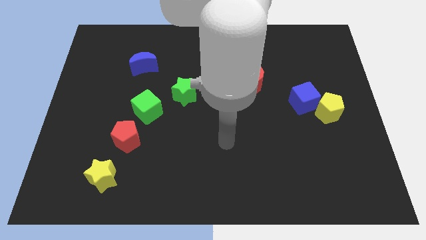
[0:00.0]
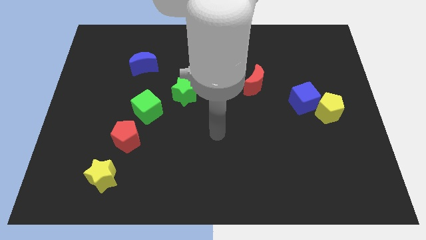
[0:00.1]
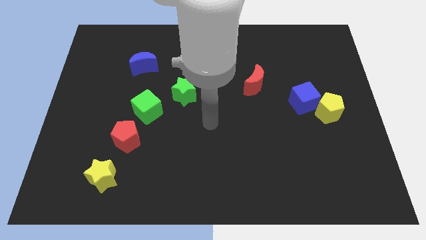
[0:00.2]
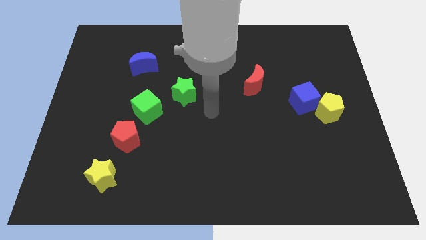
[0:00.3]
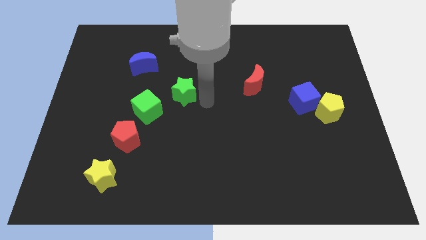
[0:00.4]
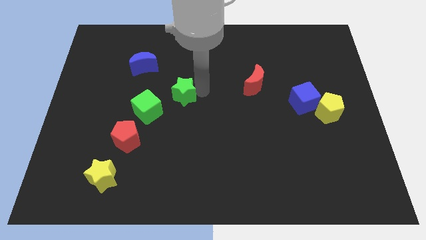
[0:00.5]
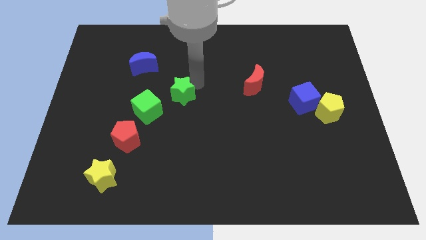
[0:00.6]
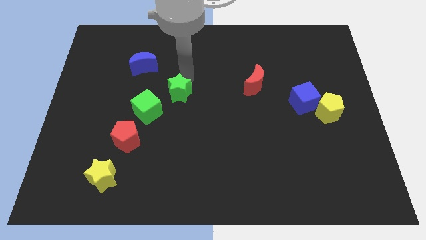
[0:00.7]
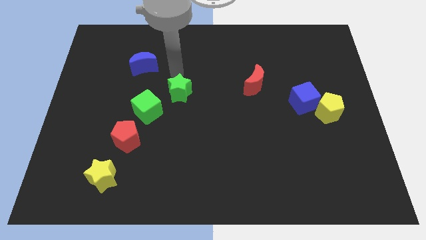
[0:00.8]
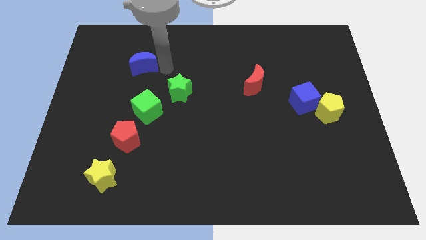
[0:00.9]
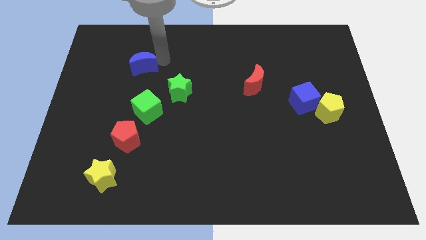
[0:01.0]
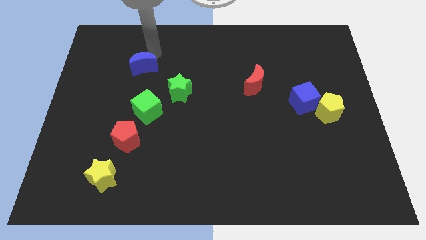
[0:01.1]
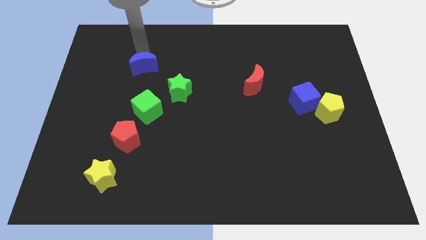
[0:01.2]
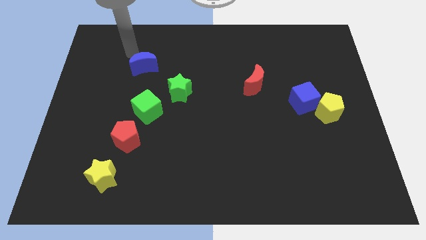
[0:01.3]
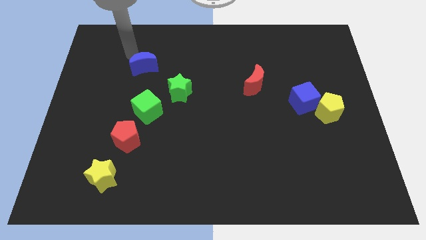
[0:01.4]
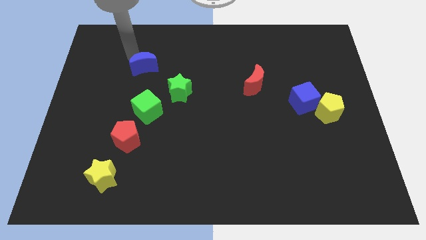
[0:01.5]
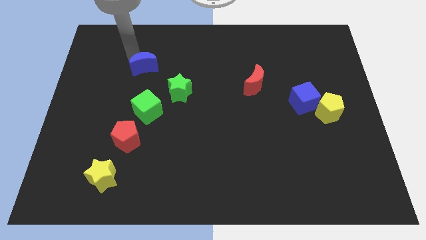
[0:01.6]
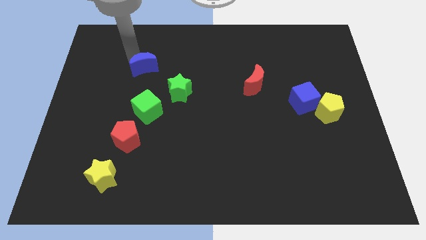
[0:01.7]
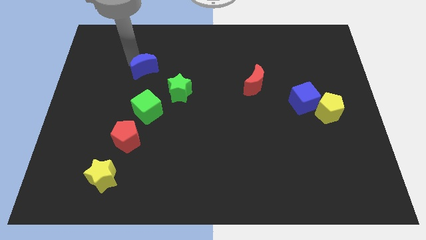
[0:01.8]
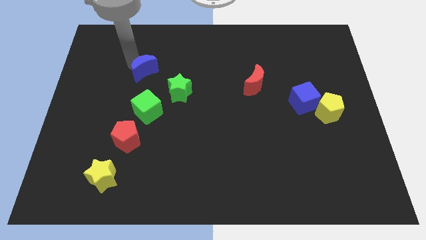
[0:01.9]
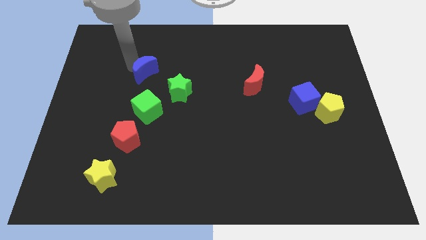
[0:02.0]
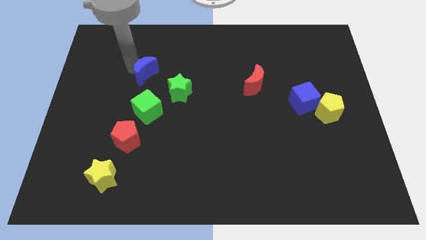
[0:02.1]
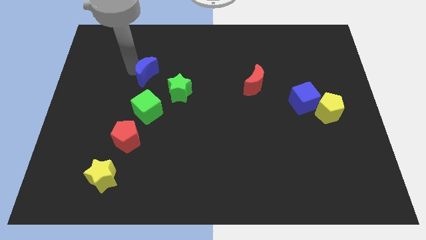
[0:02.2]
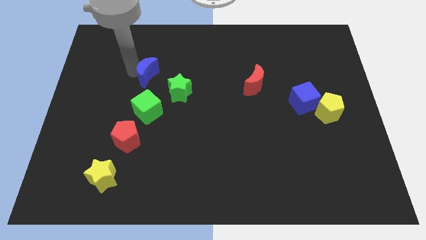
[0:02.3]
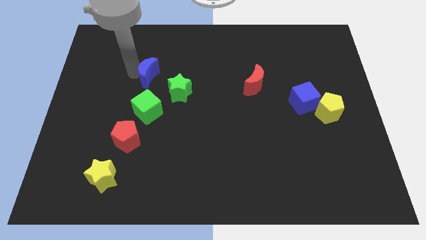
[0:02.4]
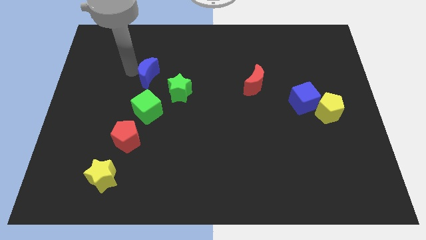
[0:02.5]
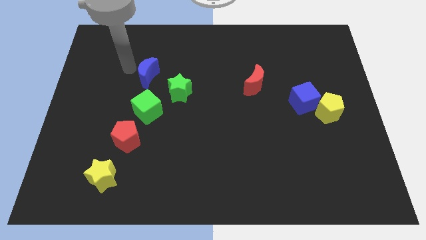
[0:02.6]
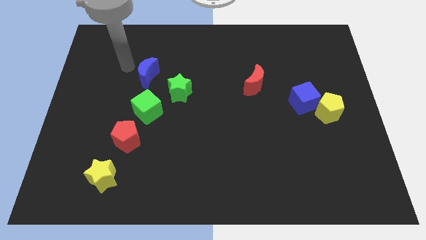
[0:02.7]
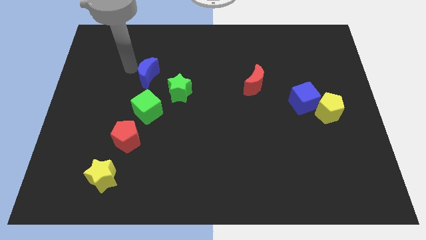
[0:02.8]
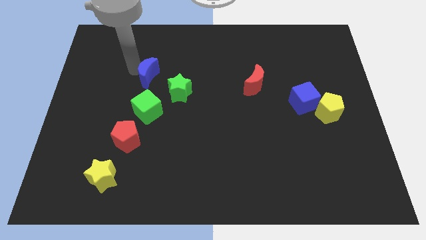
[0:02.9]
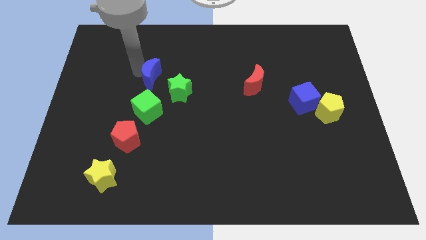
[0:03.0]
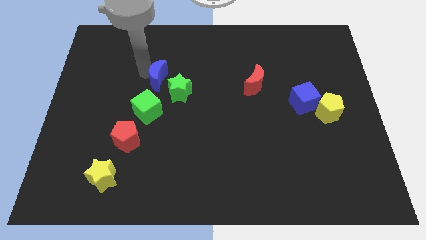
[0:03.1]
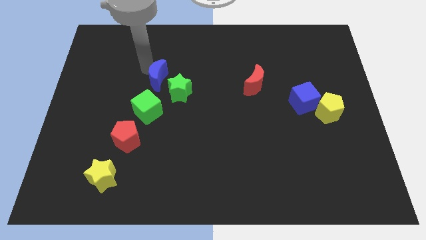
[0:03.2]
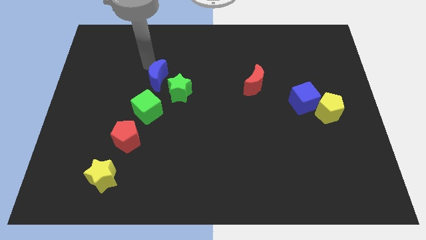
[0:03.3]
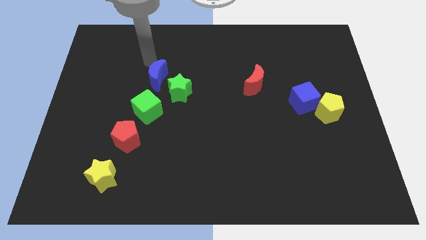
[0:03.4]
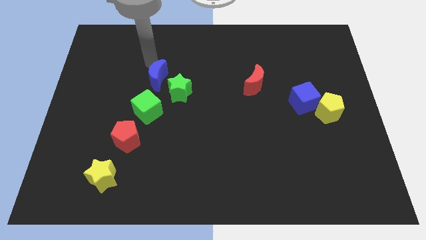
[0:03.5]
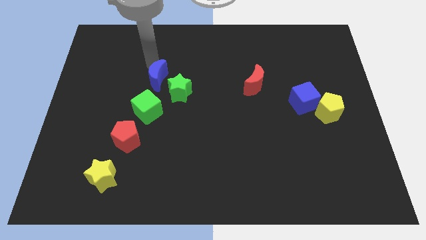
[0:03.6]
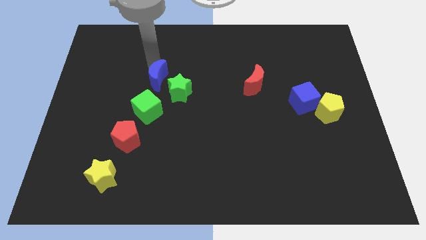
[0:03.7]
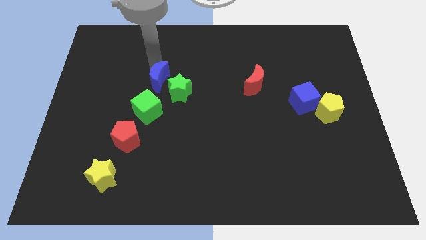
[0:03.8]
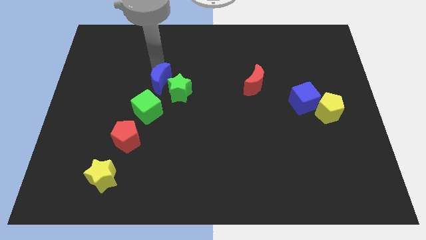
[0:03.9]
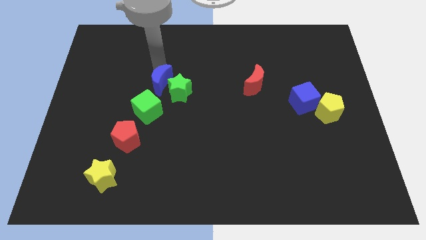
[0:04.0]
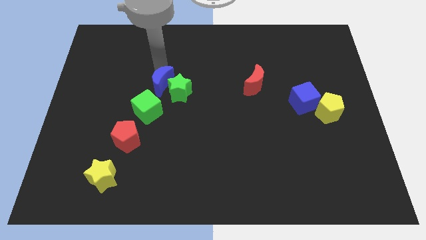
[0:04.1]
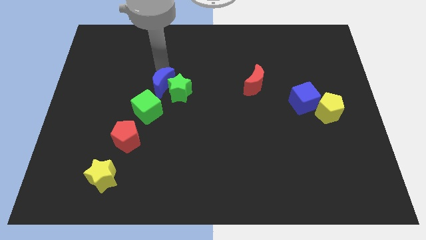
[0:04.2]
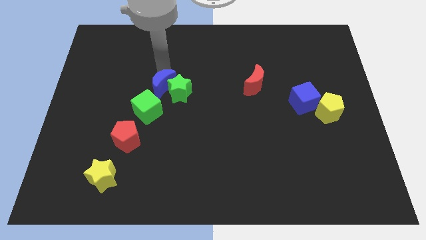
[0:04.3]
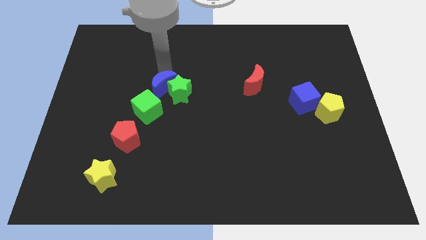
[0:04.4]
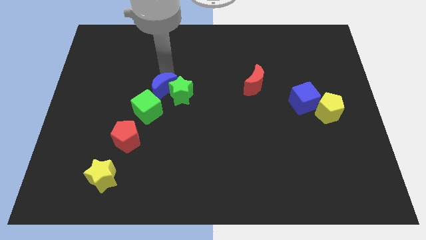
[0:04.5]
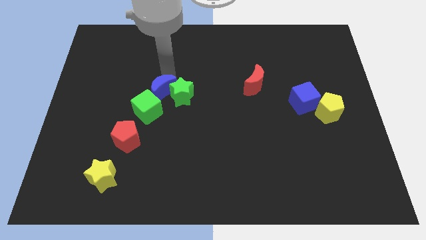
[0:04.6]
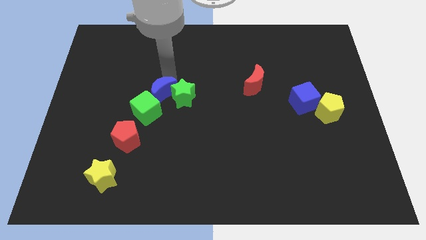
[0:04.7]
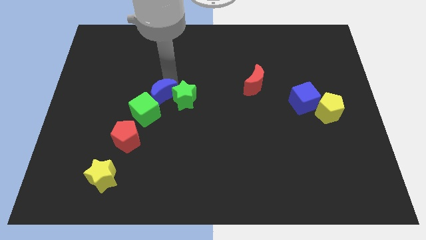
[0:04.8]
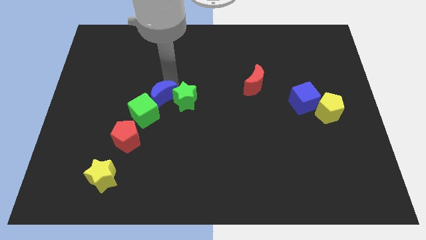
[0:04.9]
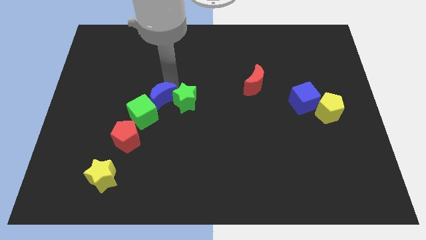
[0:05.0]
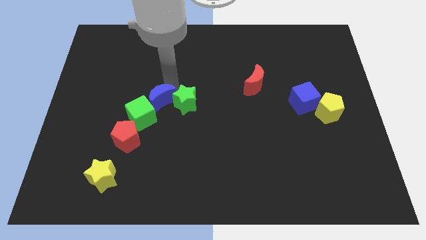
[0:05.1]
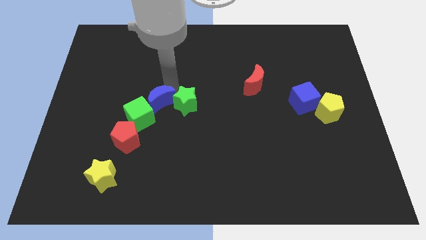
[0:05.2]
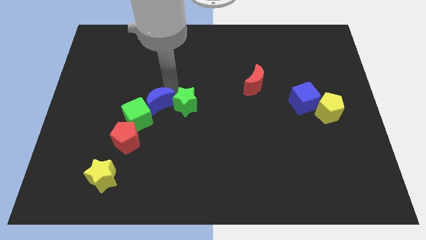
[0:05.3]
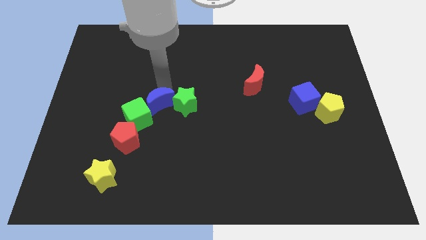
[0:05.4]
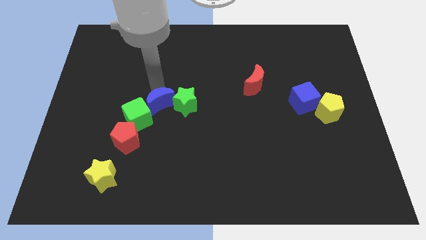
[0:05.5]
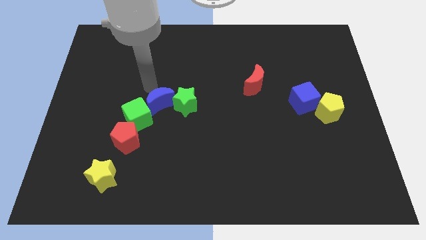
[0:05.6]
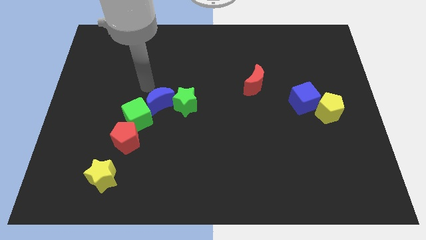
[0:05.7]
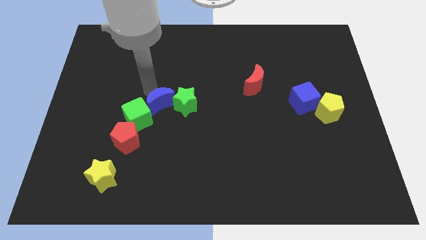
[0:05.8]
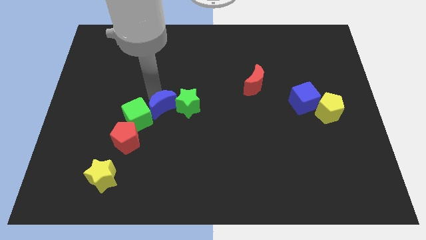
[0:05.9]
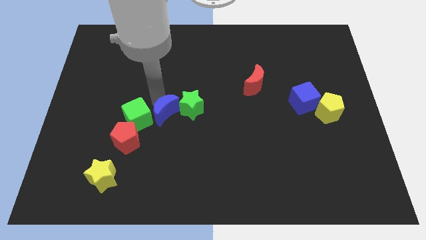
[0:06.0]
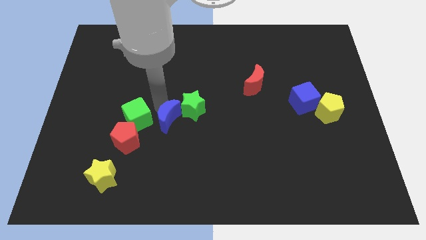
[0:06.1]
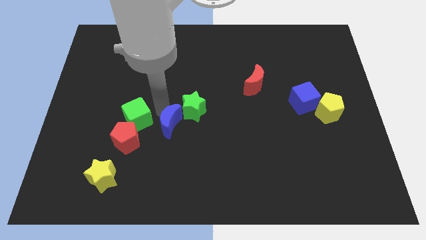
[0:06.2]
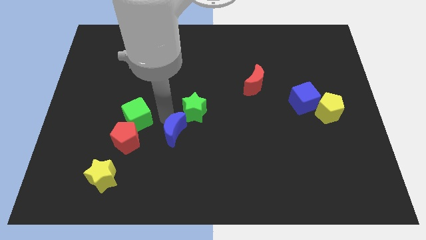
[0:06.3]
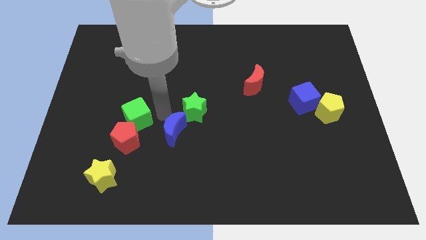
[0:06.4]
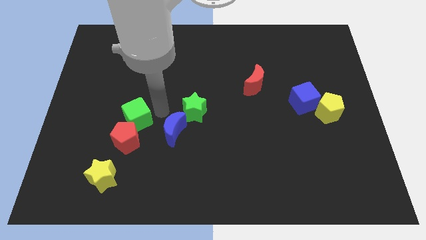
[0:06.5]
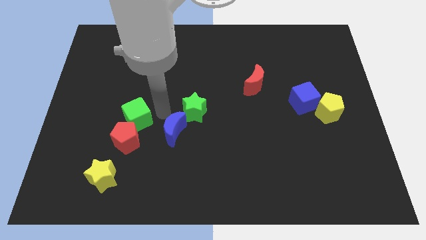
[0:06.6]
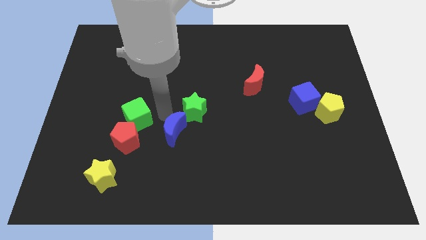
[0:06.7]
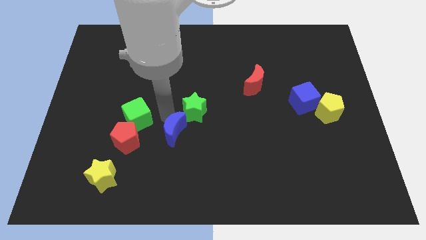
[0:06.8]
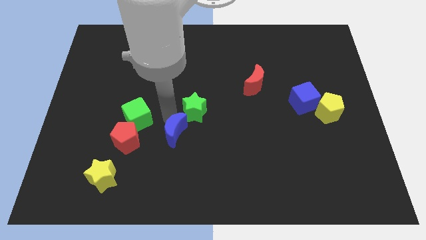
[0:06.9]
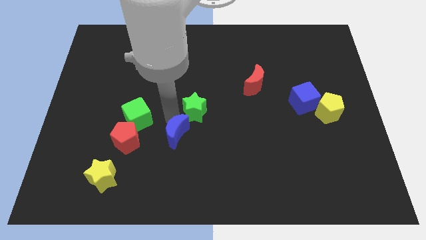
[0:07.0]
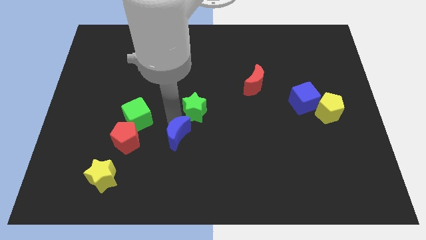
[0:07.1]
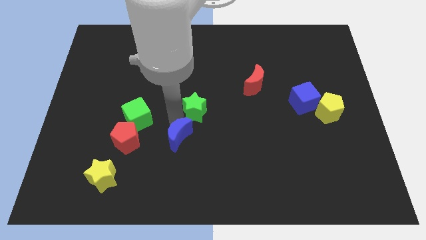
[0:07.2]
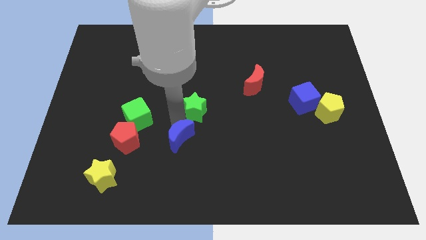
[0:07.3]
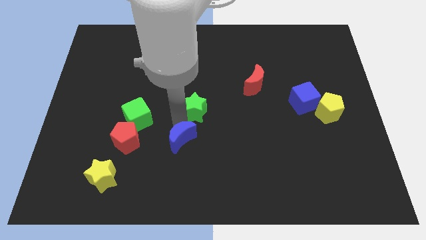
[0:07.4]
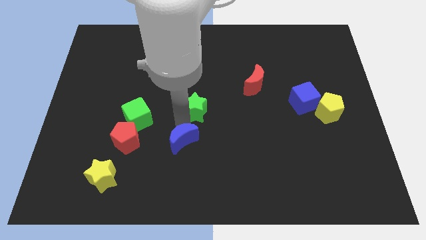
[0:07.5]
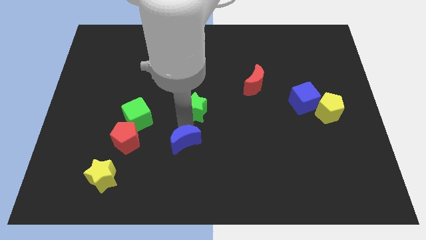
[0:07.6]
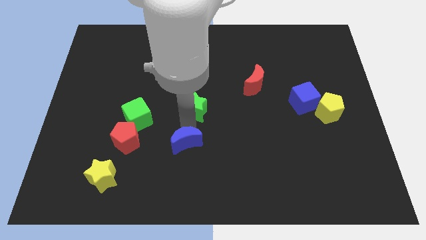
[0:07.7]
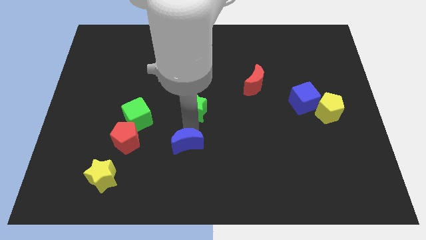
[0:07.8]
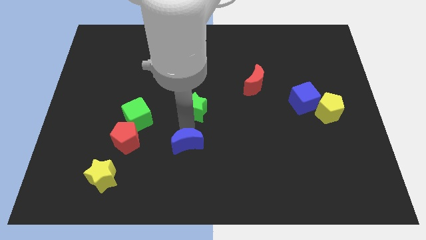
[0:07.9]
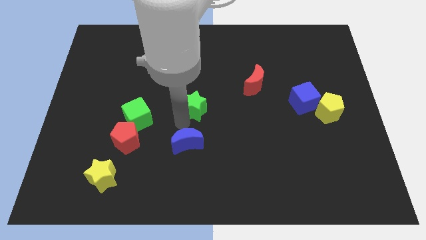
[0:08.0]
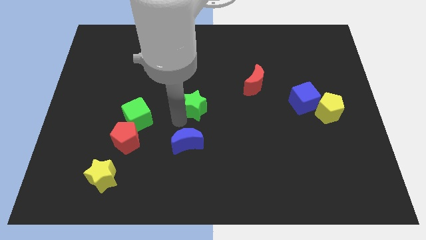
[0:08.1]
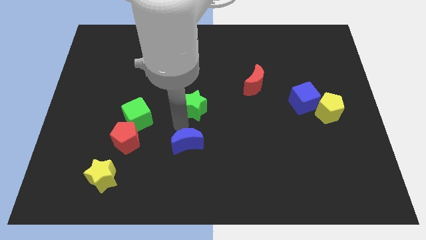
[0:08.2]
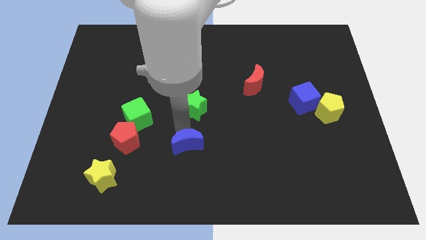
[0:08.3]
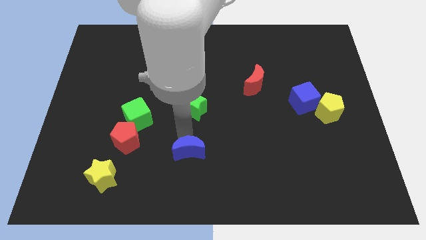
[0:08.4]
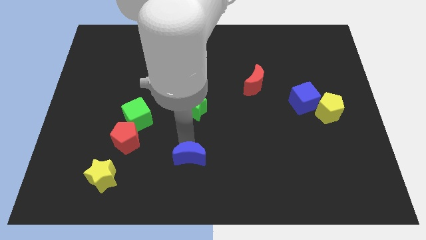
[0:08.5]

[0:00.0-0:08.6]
push the blue moon to the bottom
